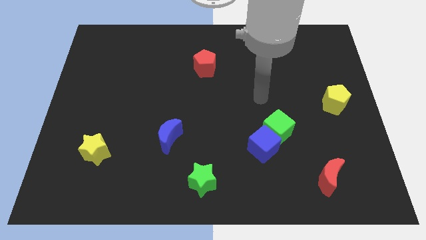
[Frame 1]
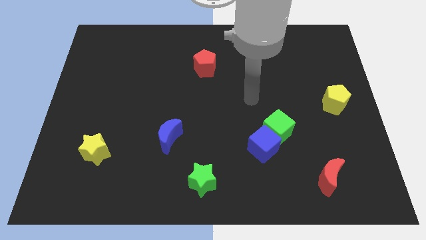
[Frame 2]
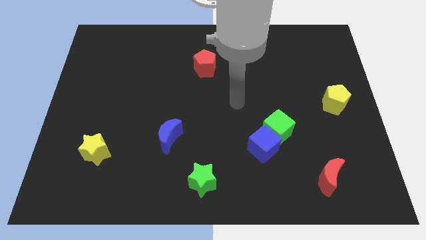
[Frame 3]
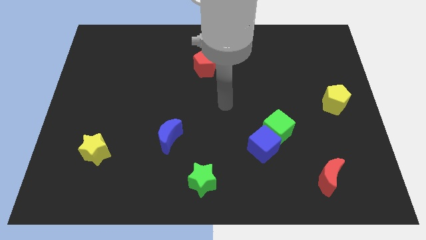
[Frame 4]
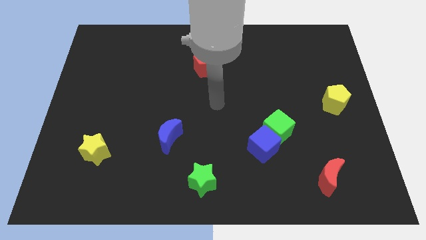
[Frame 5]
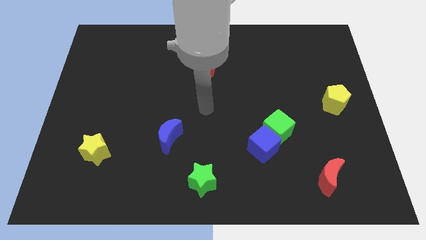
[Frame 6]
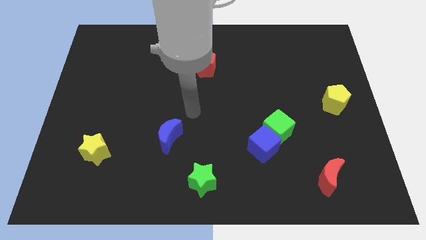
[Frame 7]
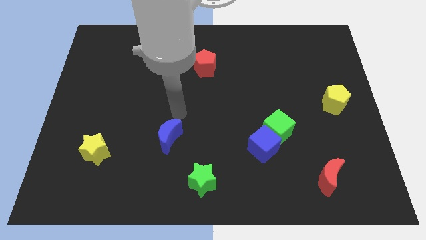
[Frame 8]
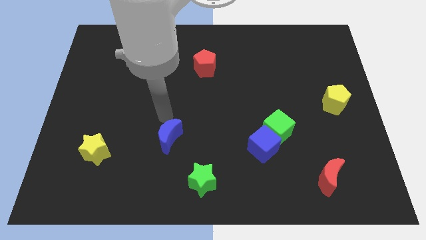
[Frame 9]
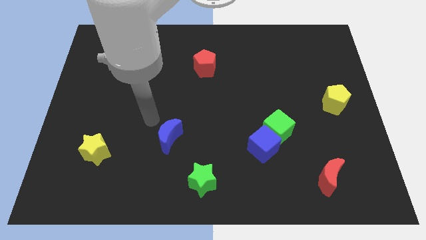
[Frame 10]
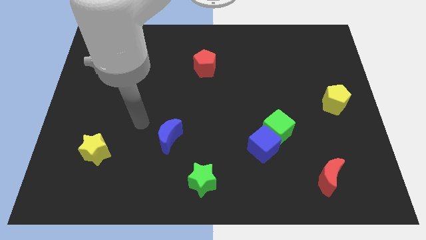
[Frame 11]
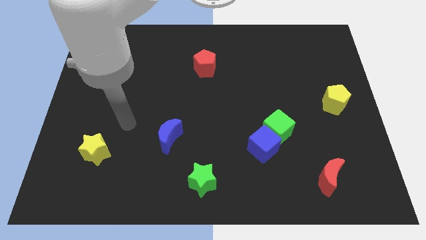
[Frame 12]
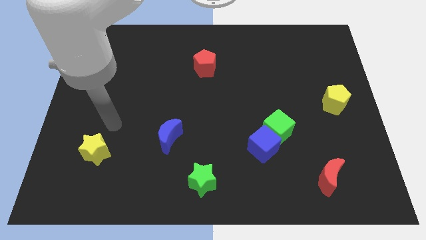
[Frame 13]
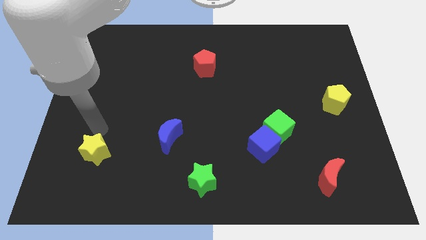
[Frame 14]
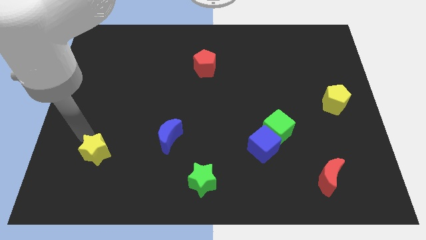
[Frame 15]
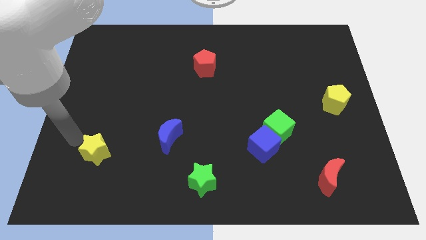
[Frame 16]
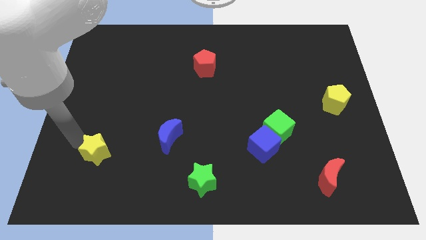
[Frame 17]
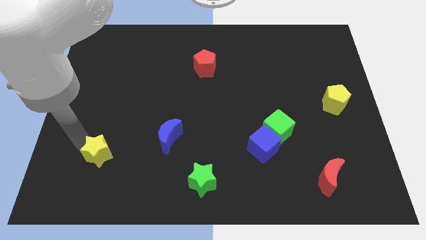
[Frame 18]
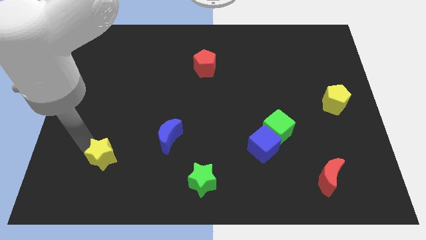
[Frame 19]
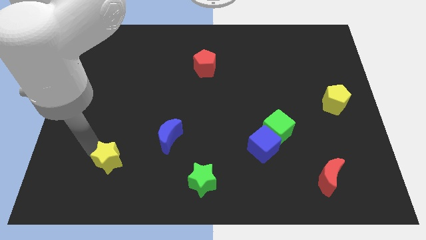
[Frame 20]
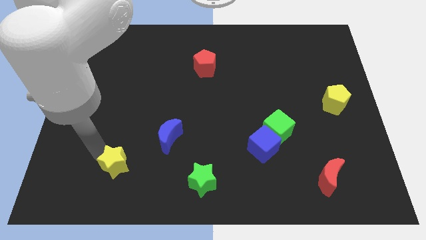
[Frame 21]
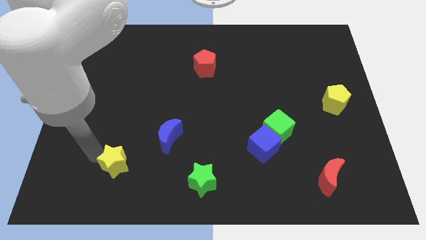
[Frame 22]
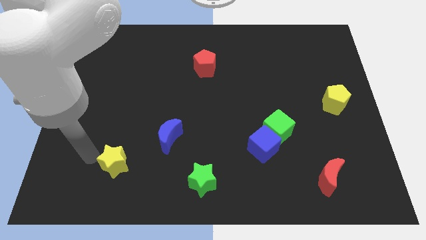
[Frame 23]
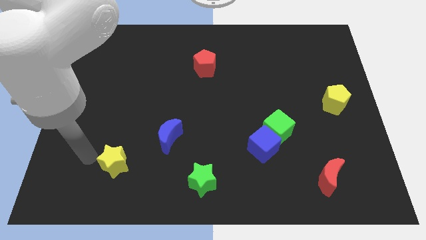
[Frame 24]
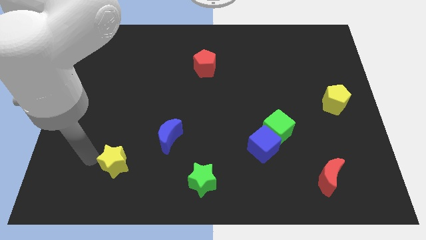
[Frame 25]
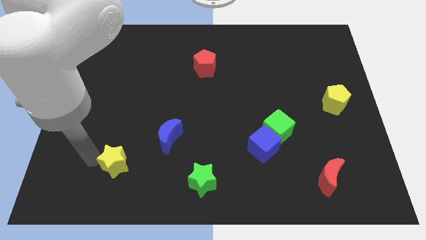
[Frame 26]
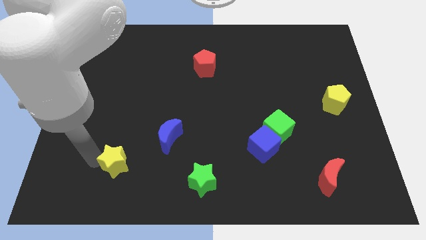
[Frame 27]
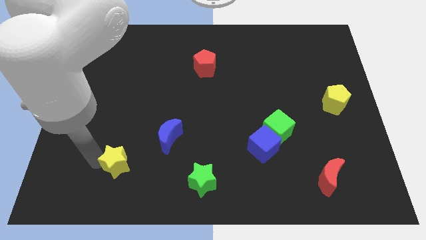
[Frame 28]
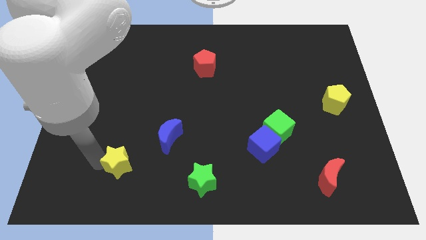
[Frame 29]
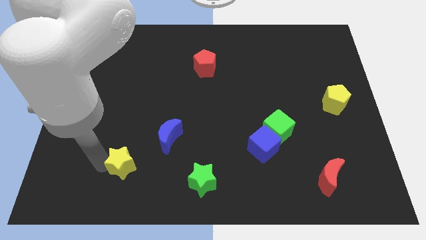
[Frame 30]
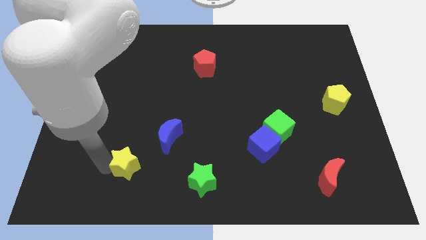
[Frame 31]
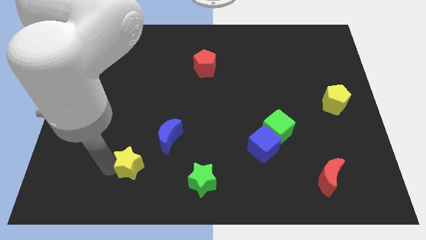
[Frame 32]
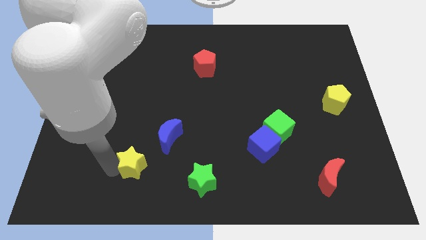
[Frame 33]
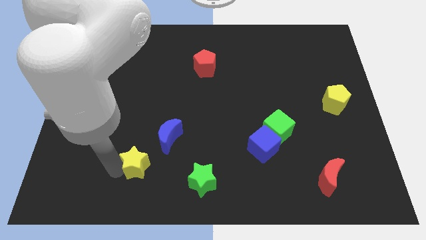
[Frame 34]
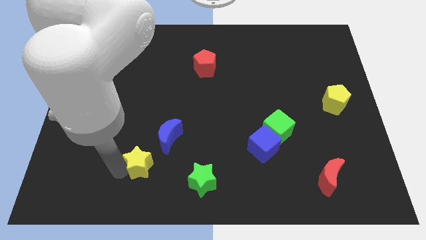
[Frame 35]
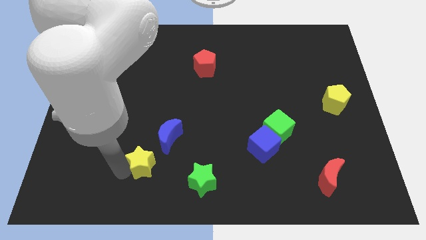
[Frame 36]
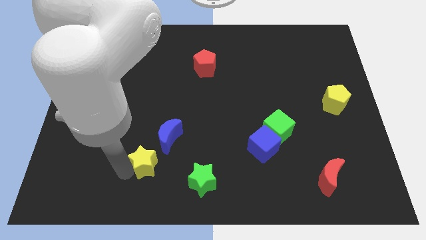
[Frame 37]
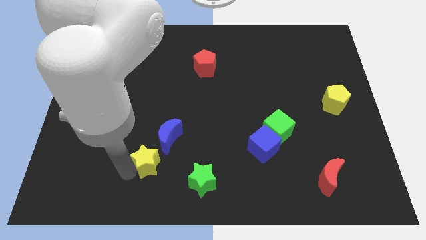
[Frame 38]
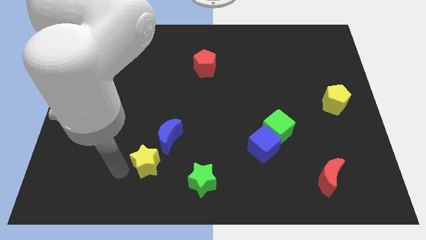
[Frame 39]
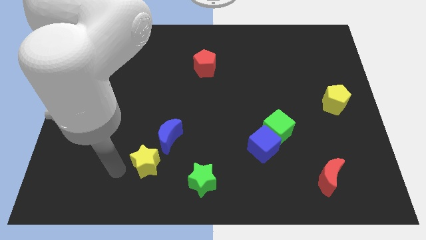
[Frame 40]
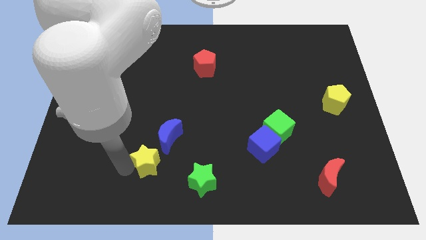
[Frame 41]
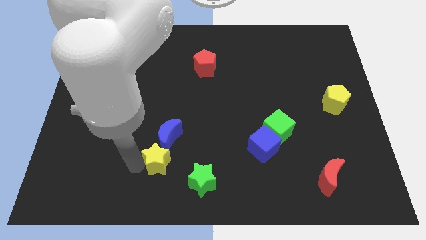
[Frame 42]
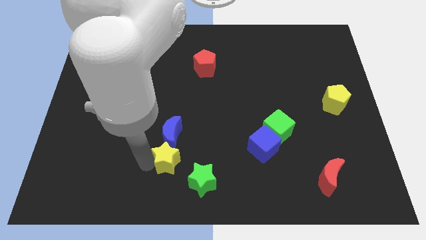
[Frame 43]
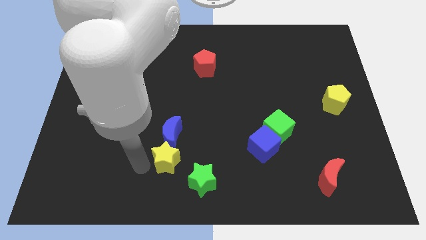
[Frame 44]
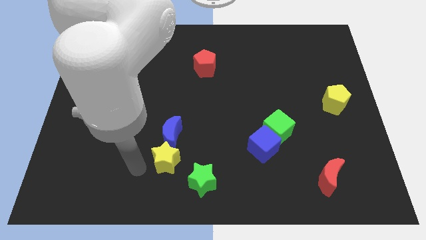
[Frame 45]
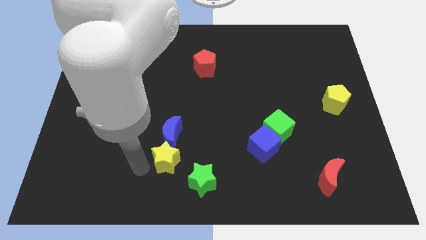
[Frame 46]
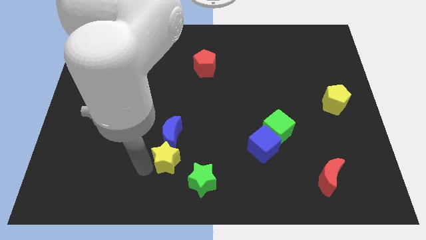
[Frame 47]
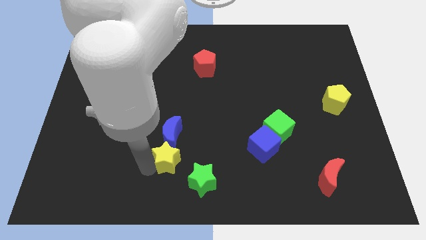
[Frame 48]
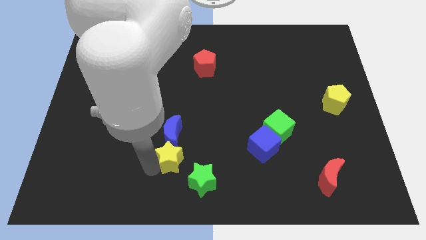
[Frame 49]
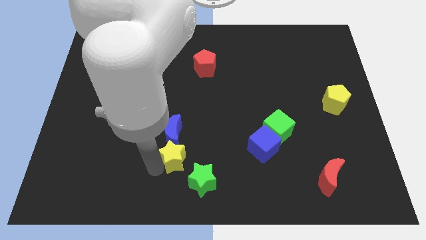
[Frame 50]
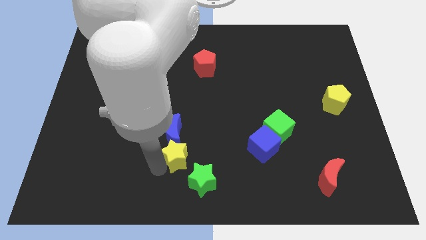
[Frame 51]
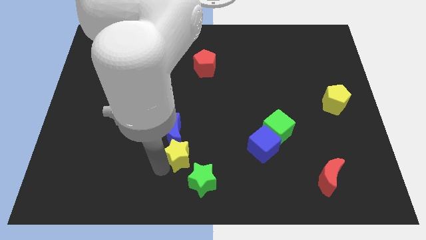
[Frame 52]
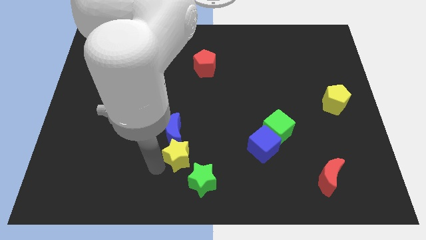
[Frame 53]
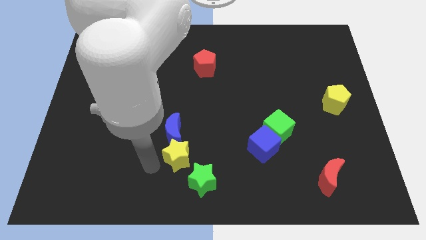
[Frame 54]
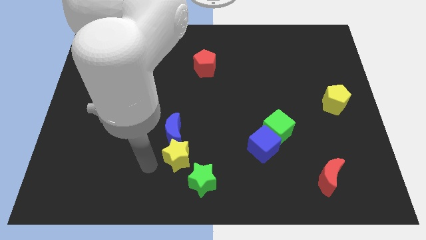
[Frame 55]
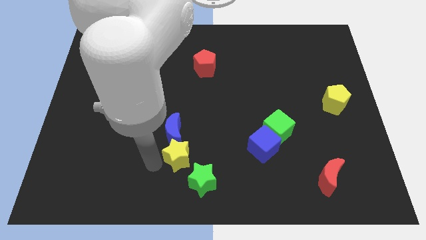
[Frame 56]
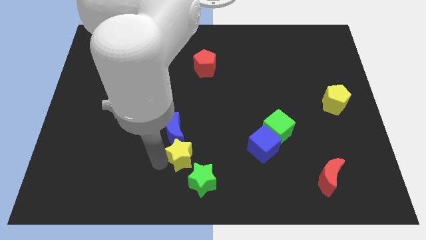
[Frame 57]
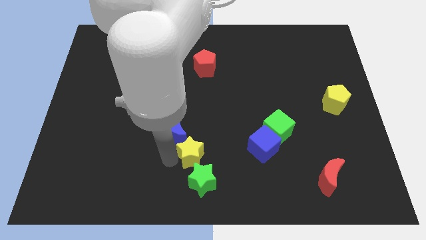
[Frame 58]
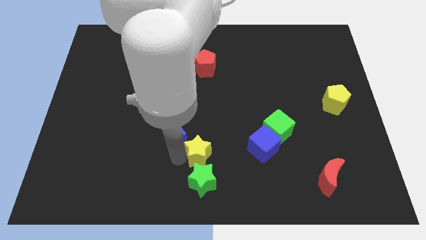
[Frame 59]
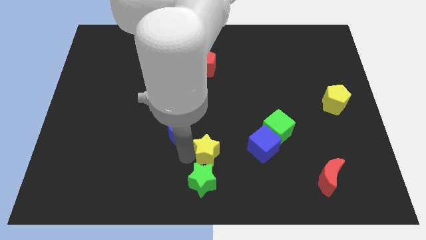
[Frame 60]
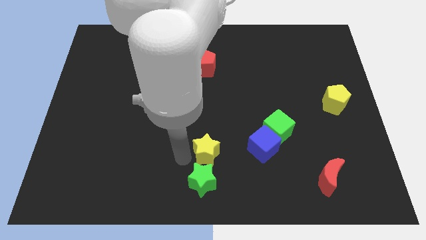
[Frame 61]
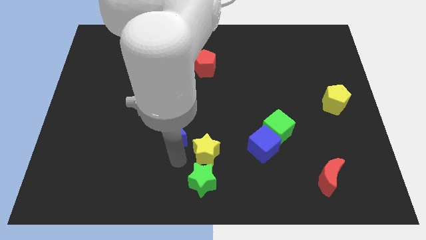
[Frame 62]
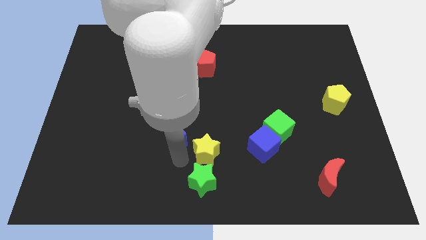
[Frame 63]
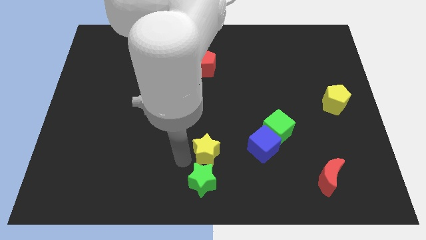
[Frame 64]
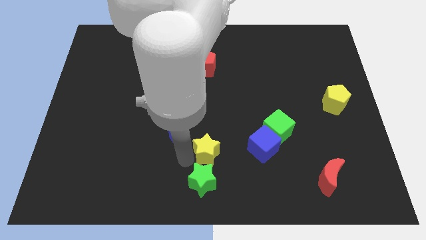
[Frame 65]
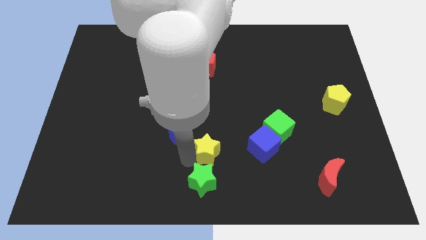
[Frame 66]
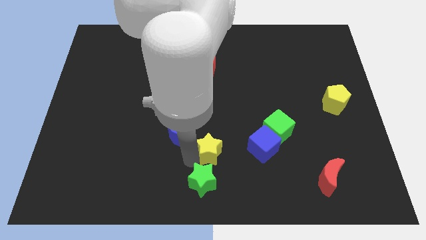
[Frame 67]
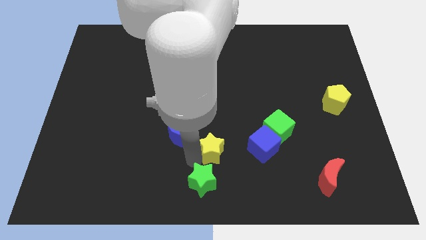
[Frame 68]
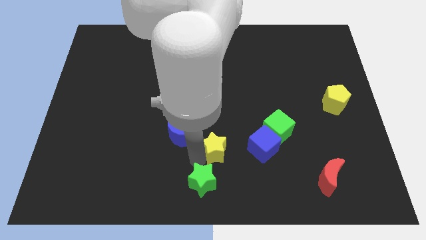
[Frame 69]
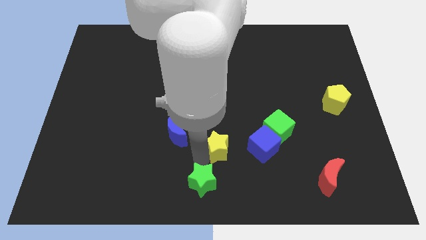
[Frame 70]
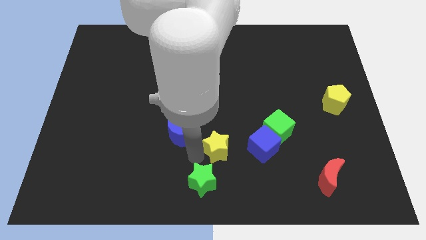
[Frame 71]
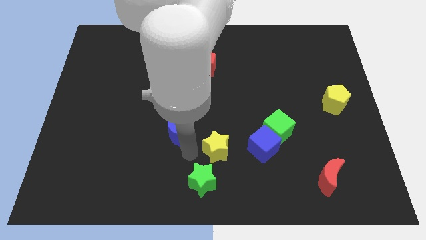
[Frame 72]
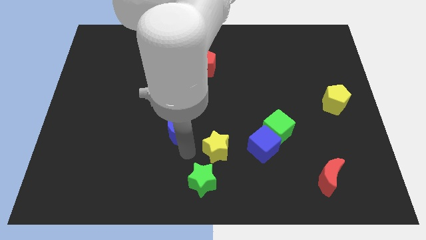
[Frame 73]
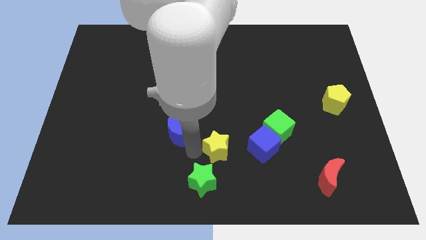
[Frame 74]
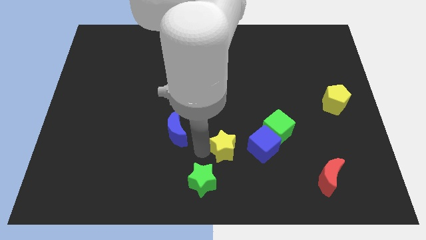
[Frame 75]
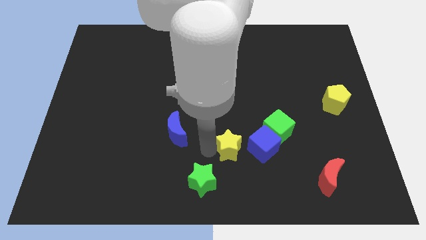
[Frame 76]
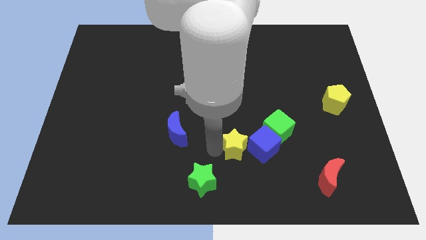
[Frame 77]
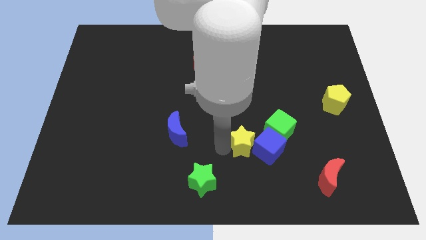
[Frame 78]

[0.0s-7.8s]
push the yellow star towards the blue cube
